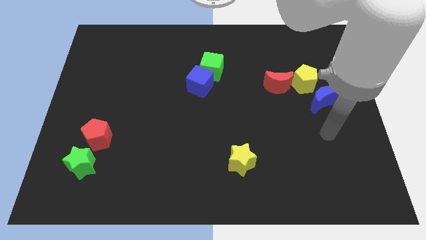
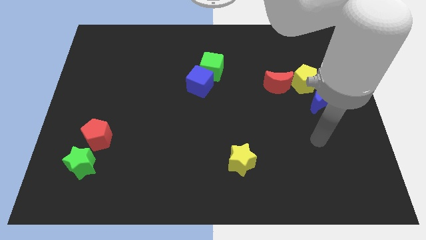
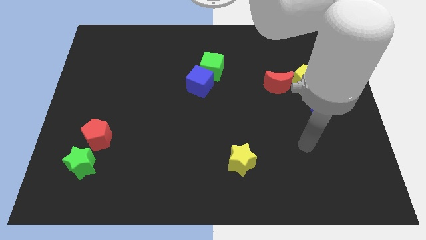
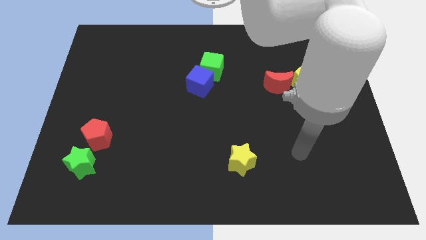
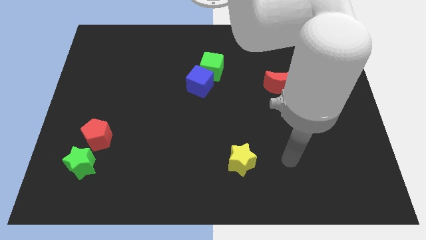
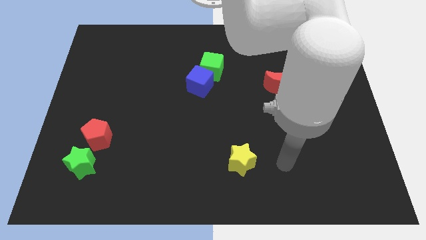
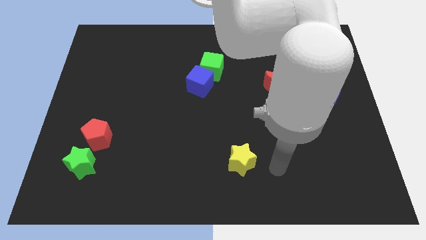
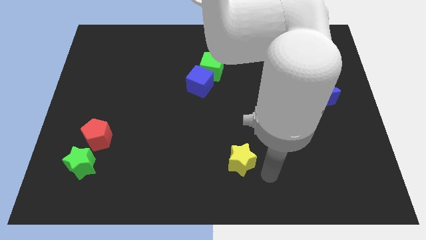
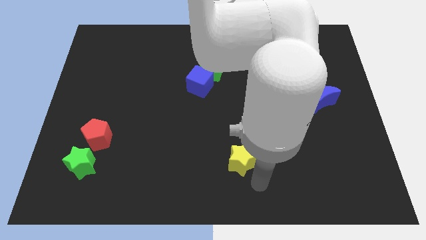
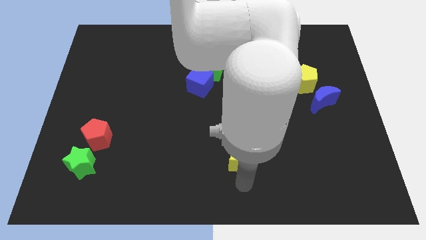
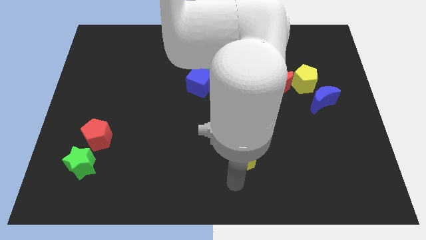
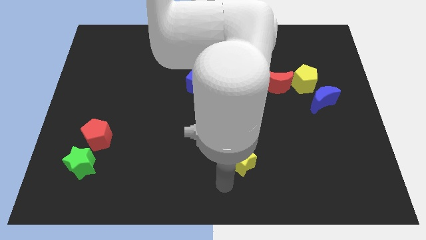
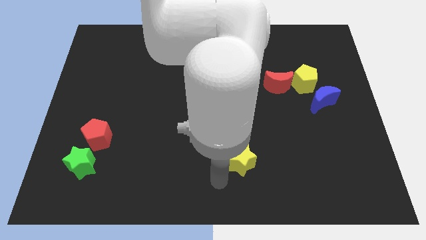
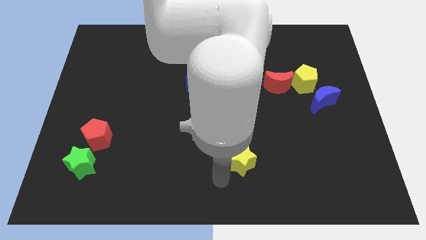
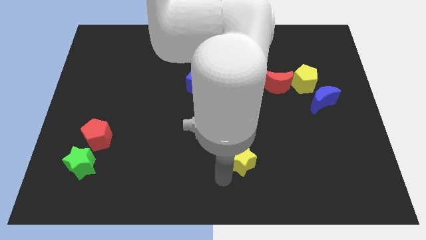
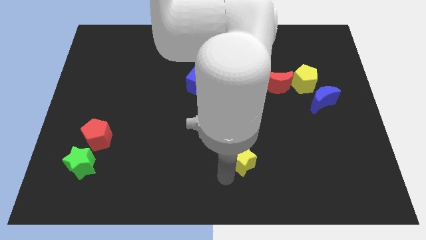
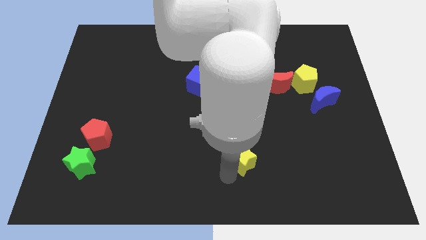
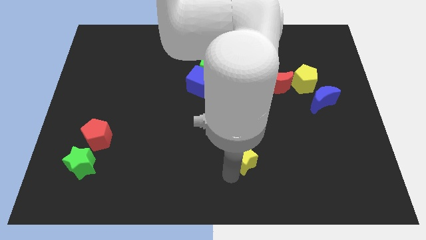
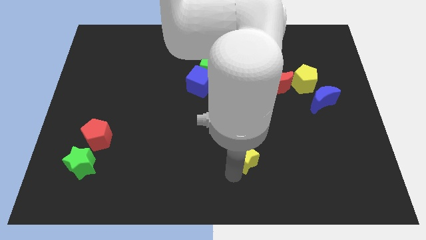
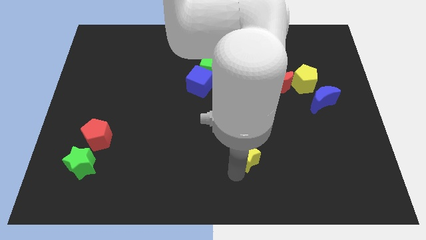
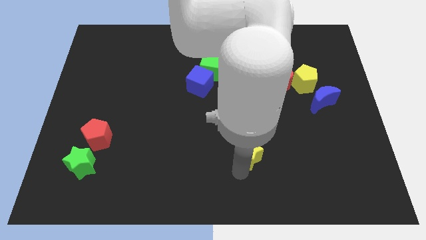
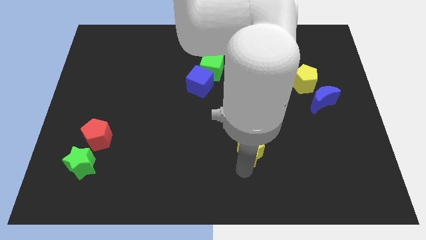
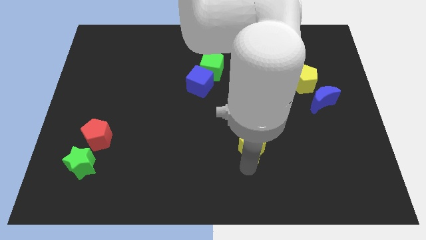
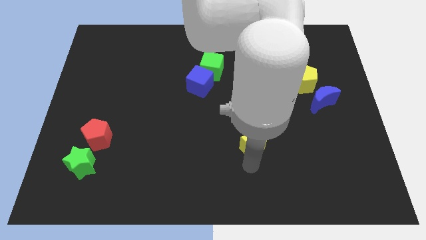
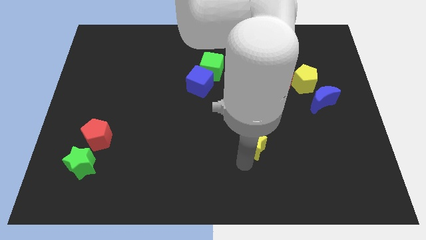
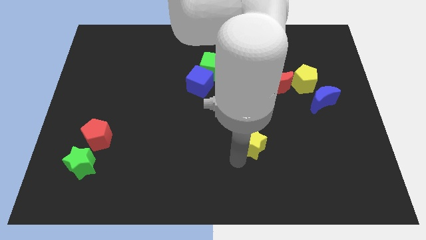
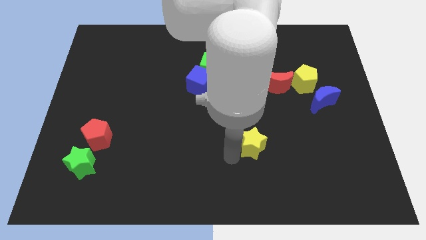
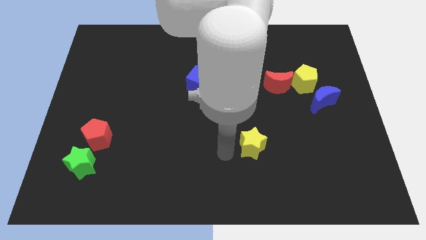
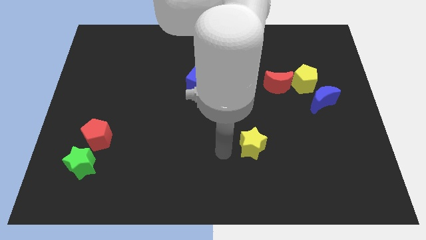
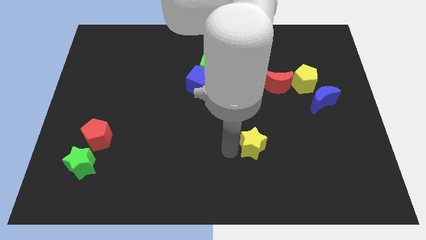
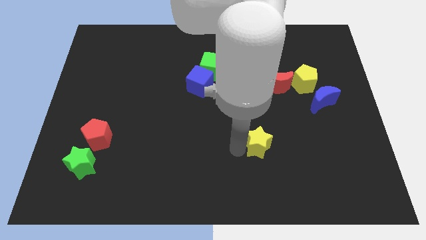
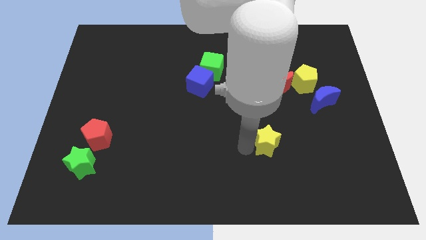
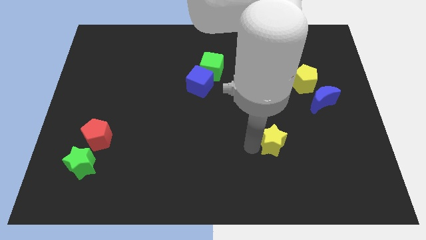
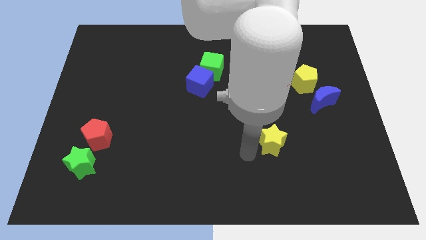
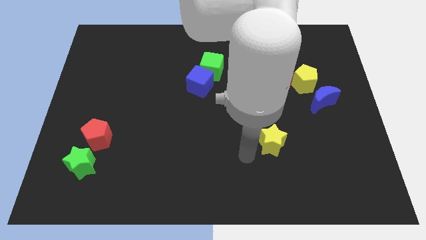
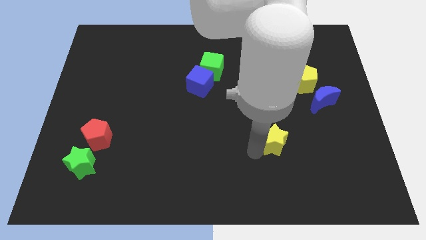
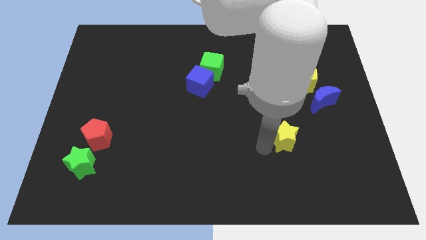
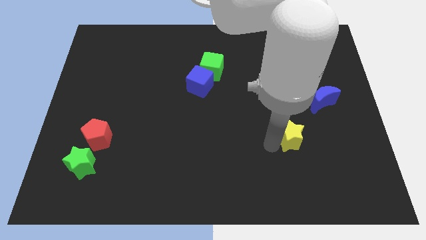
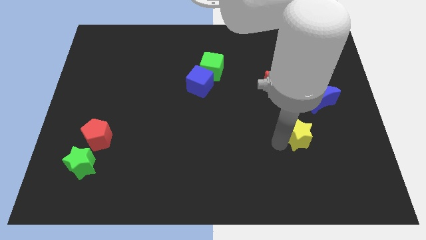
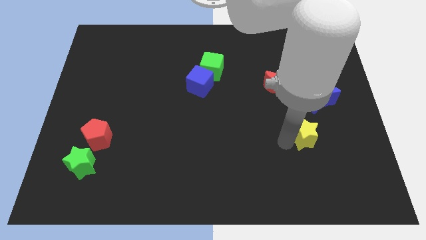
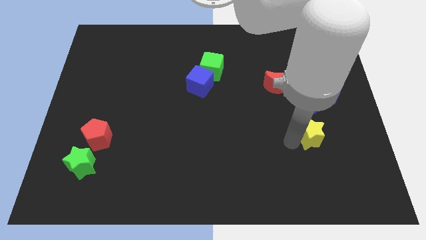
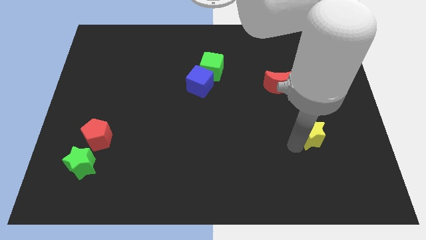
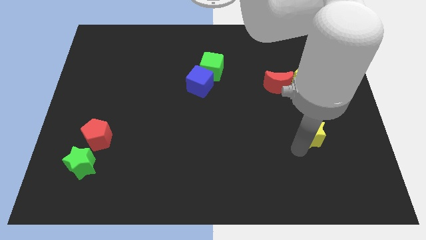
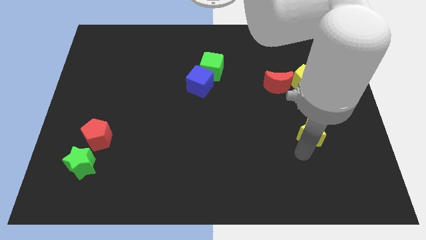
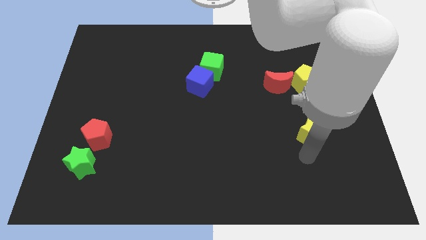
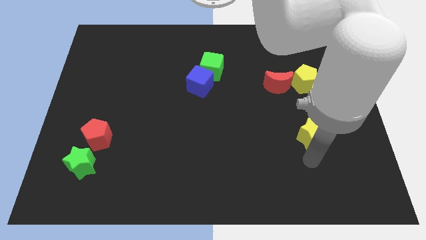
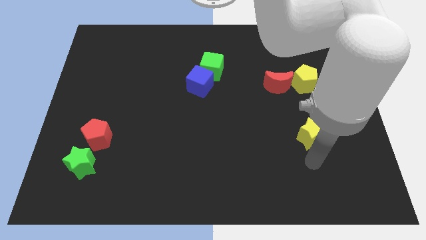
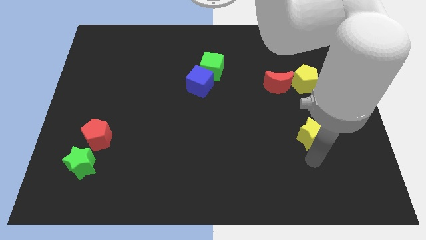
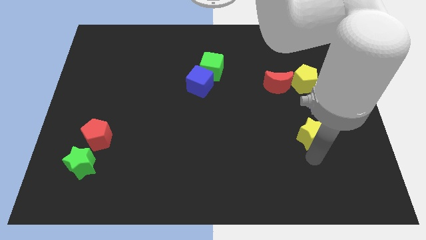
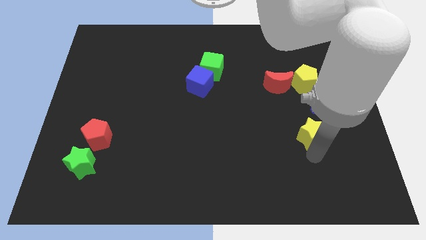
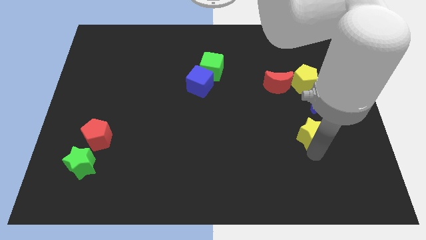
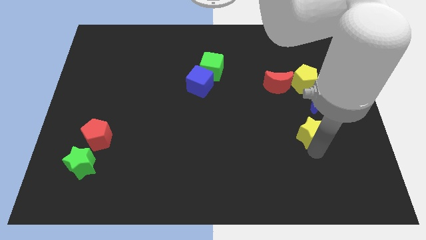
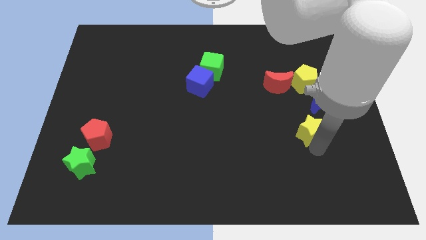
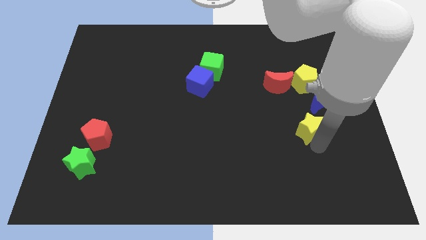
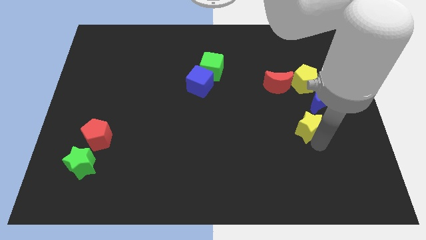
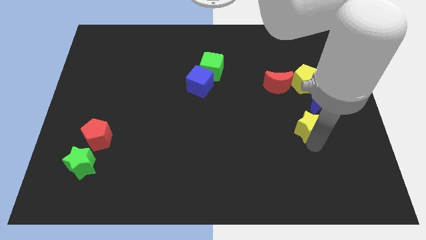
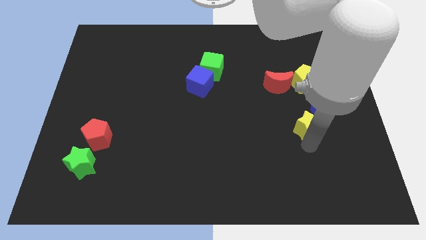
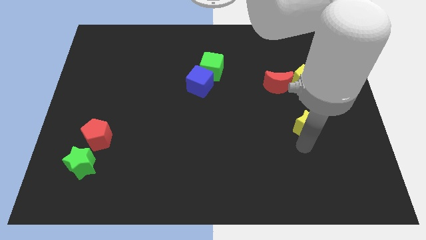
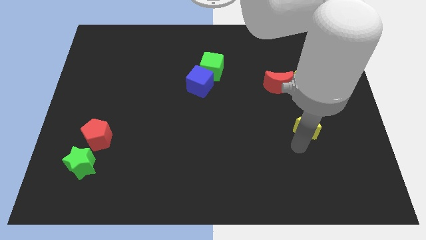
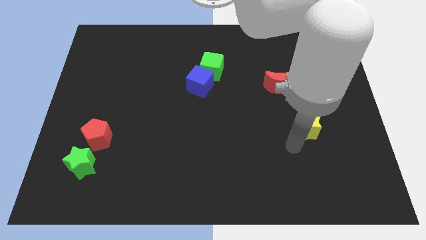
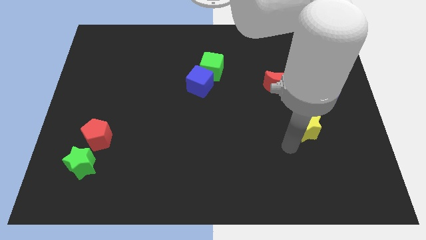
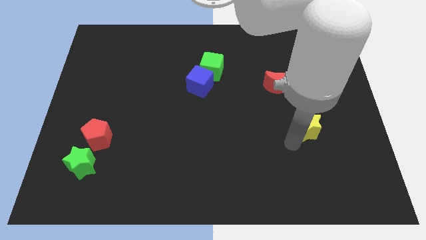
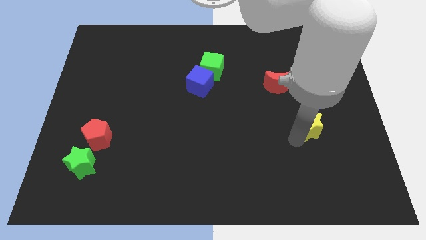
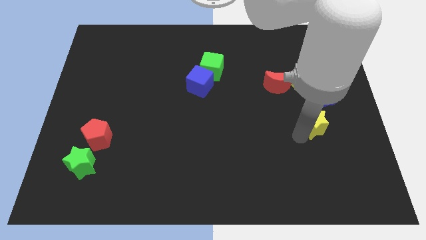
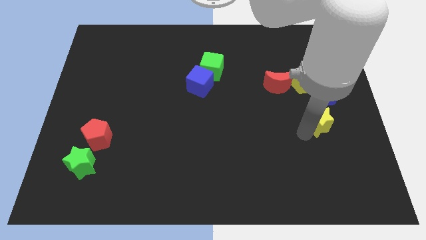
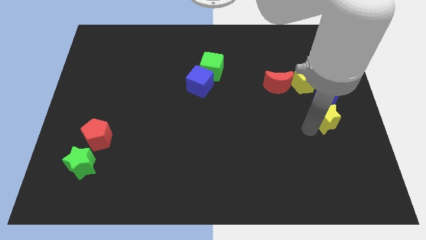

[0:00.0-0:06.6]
move the yellow star upwards and to the right

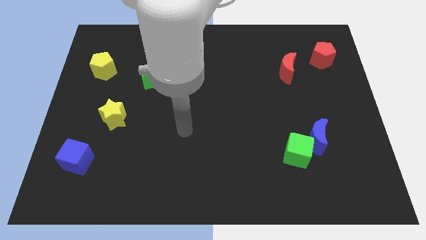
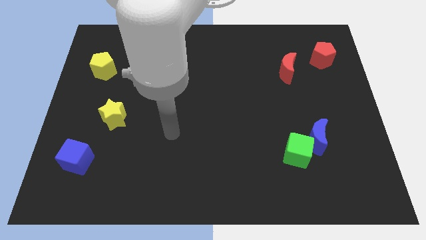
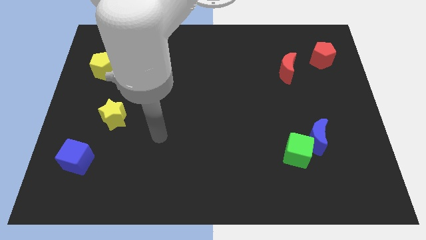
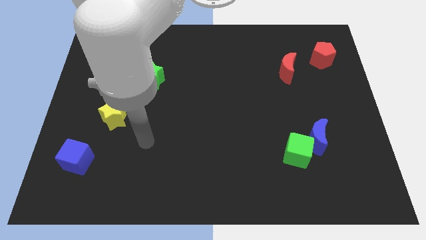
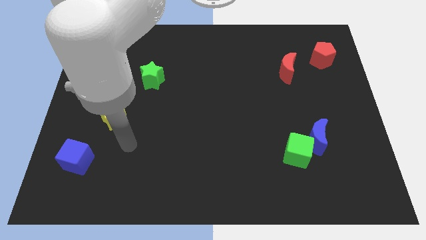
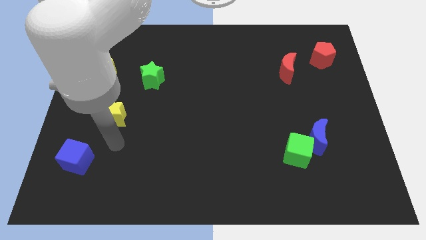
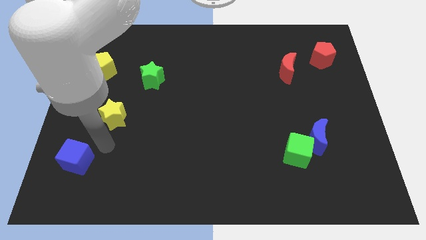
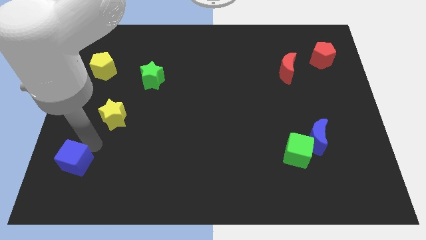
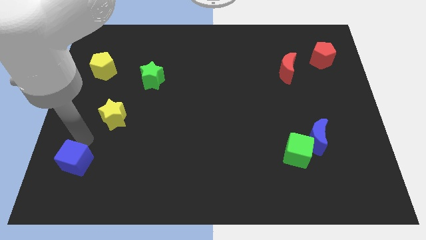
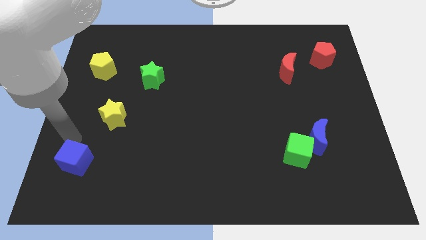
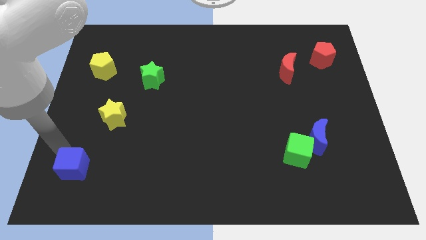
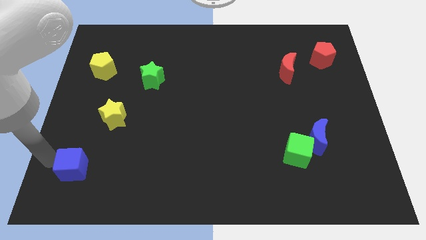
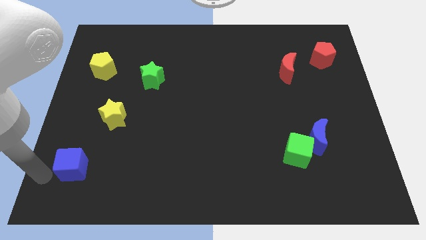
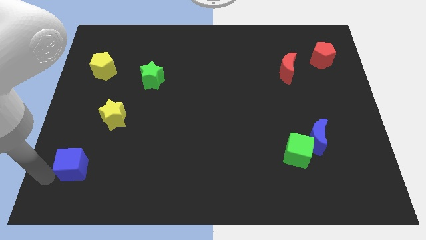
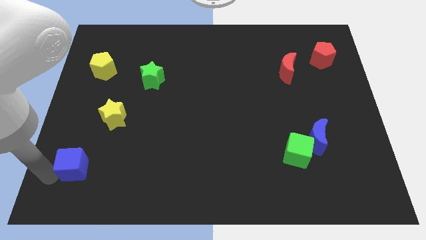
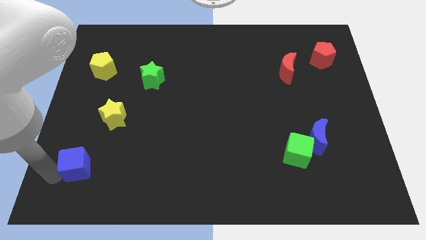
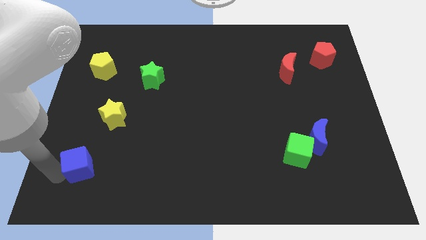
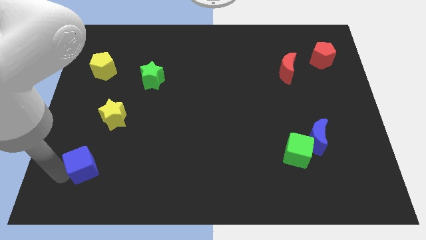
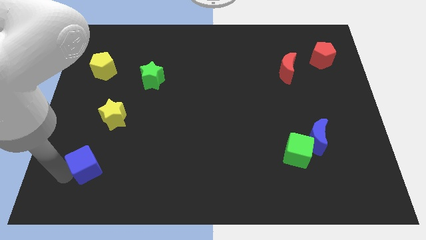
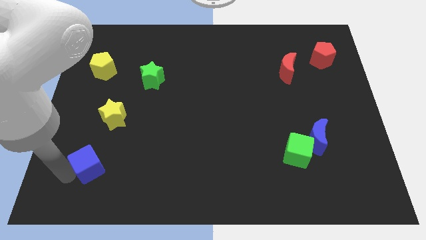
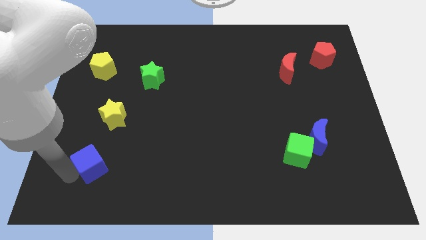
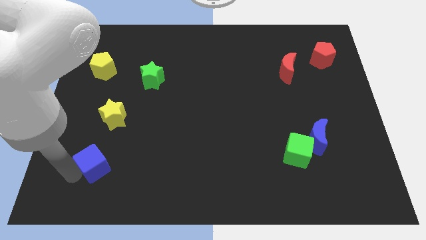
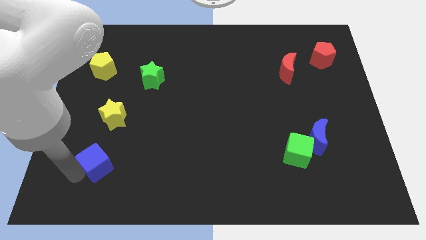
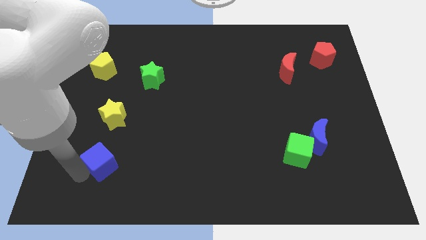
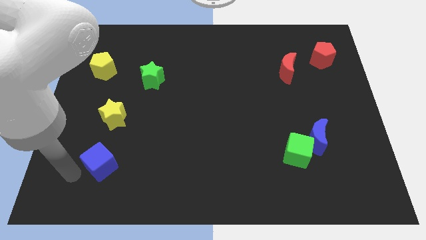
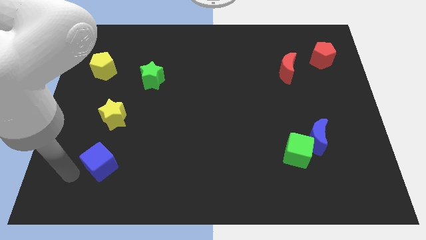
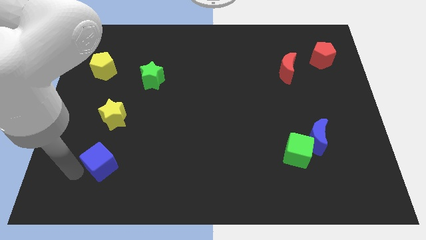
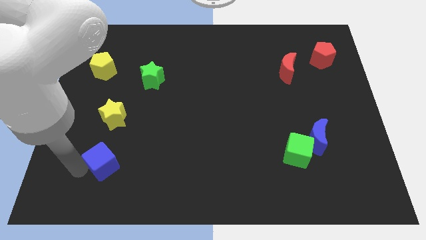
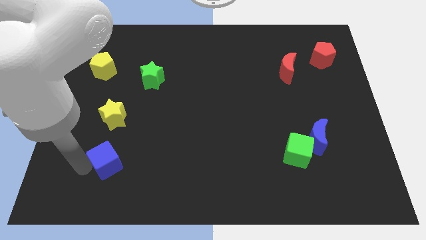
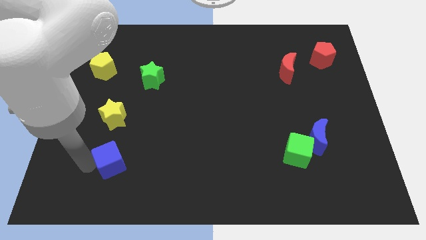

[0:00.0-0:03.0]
move the blue cube to the right slightly
